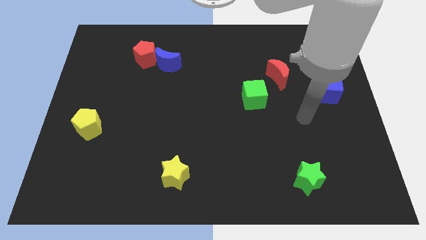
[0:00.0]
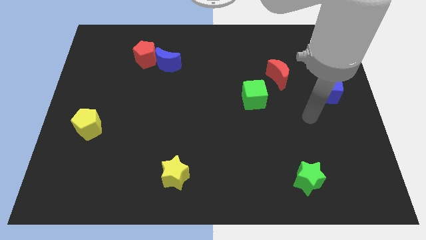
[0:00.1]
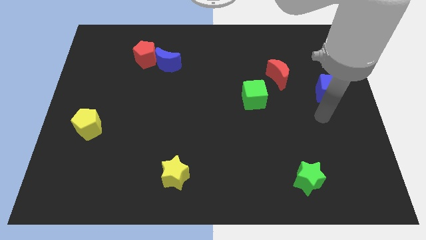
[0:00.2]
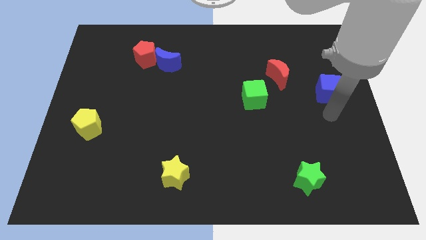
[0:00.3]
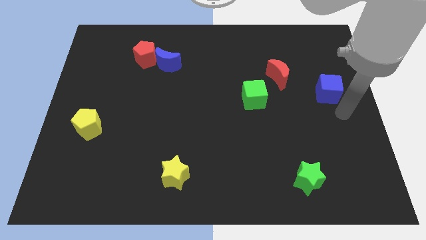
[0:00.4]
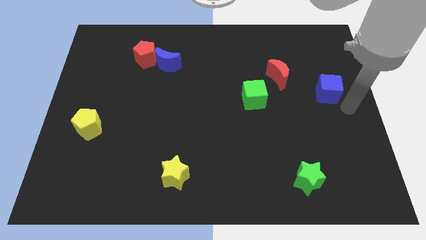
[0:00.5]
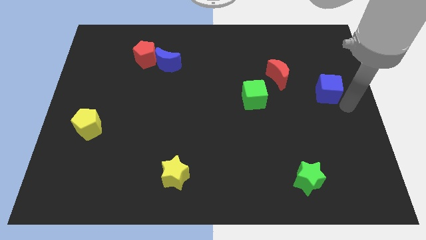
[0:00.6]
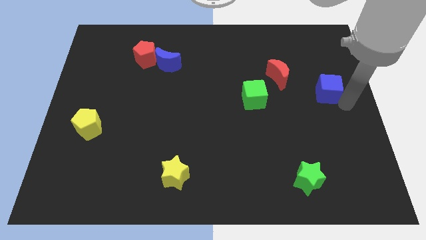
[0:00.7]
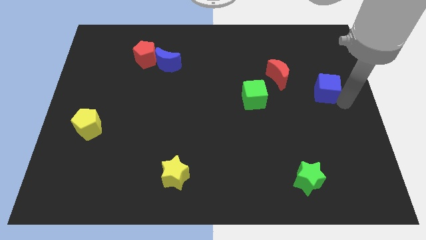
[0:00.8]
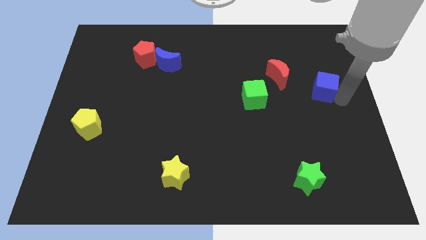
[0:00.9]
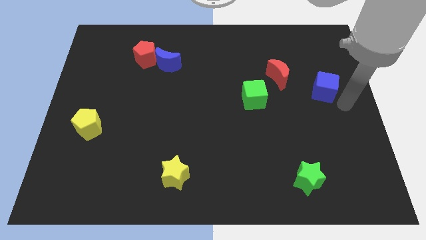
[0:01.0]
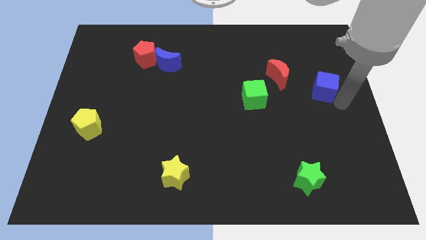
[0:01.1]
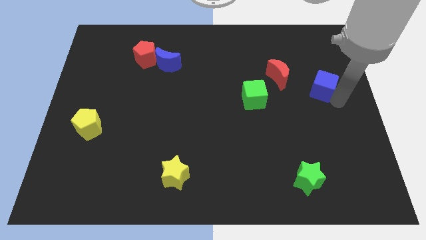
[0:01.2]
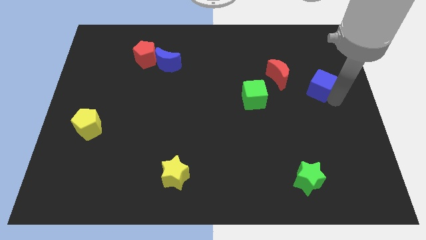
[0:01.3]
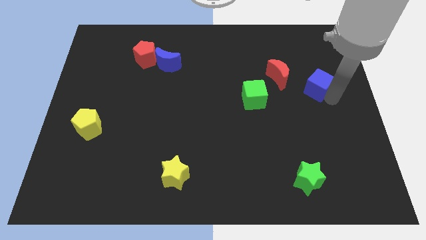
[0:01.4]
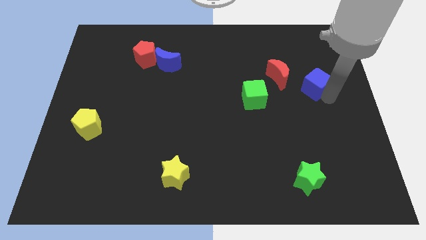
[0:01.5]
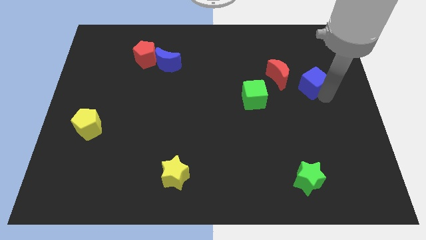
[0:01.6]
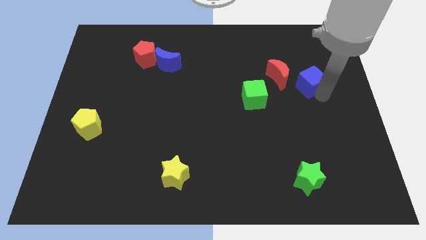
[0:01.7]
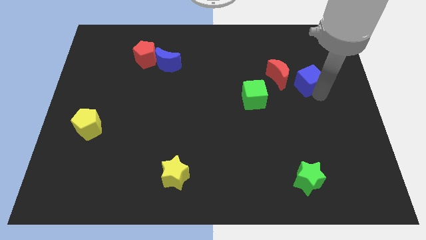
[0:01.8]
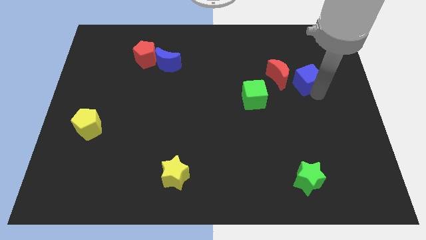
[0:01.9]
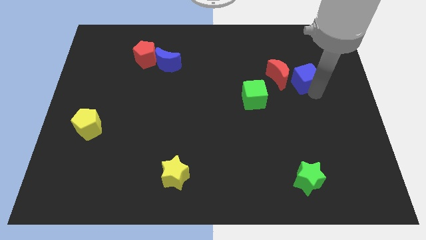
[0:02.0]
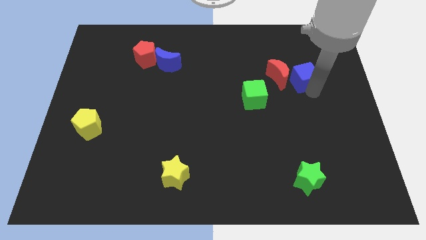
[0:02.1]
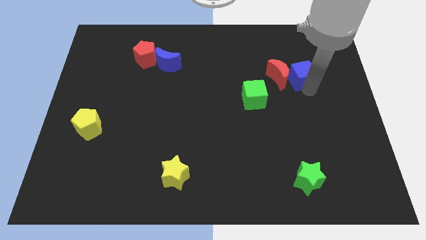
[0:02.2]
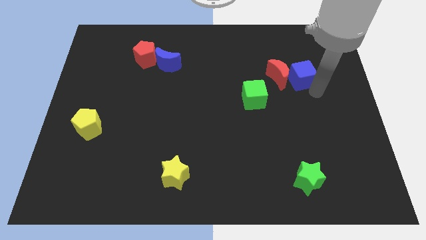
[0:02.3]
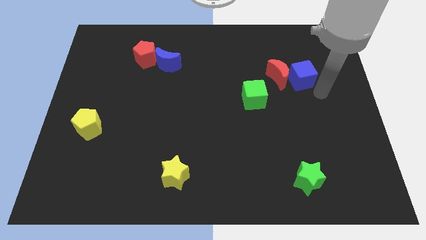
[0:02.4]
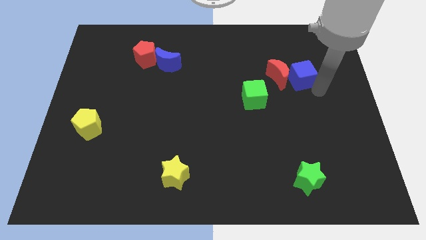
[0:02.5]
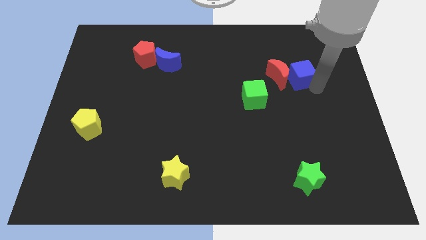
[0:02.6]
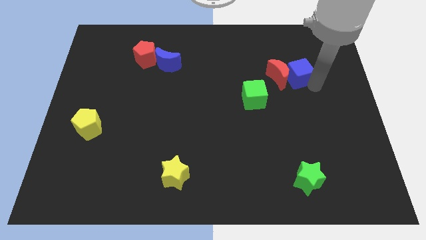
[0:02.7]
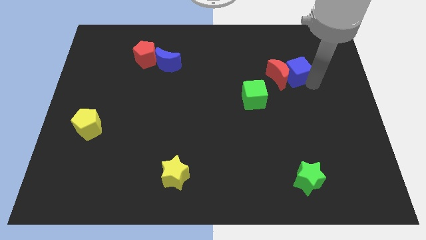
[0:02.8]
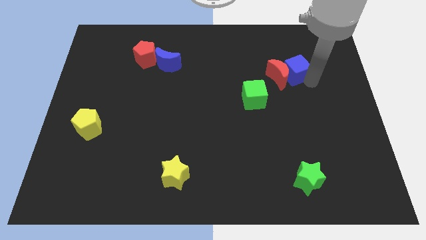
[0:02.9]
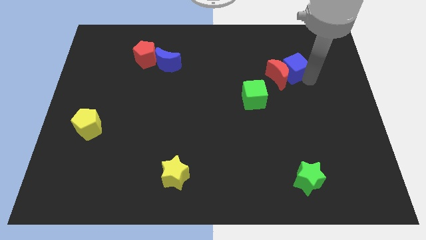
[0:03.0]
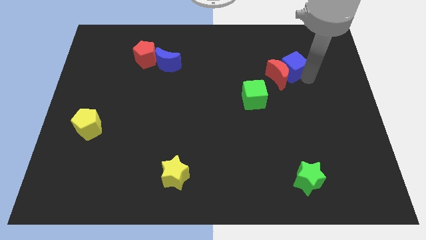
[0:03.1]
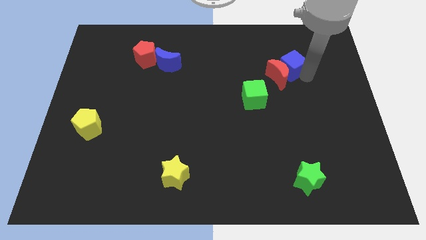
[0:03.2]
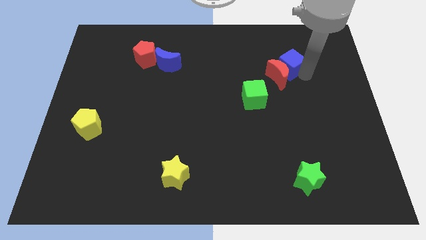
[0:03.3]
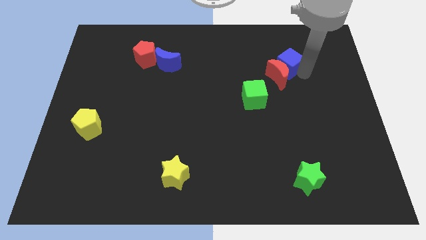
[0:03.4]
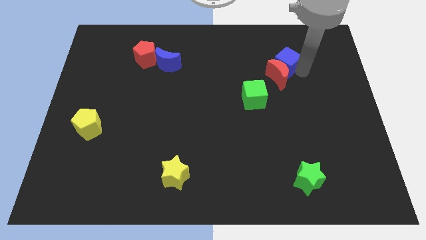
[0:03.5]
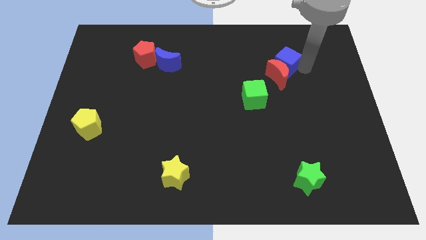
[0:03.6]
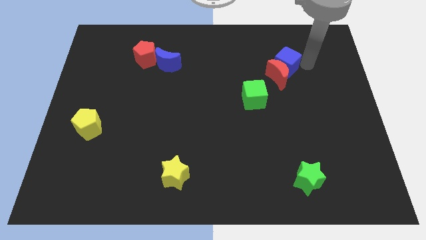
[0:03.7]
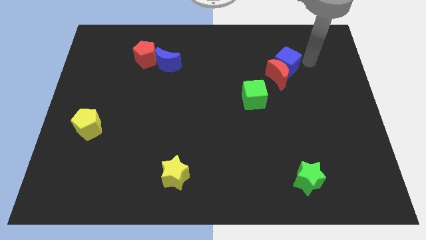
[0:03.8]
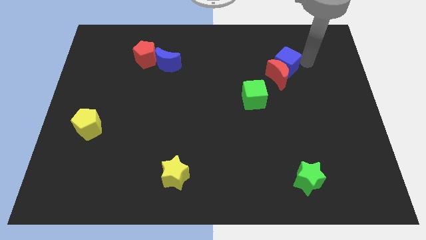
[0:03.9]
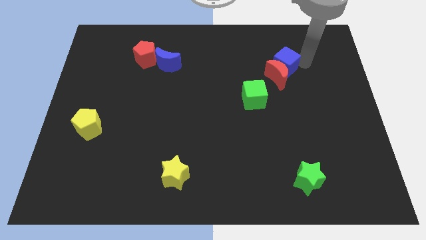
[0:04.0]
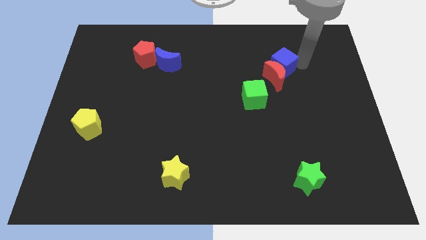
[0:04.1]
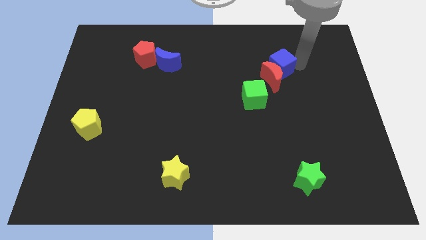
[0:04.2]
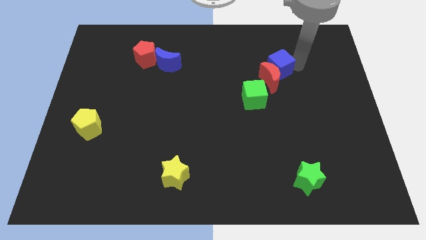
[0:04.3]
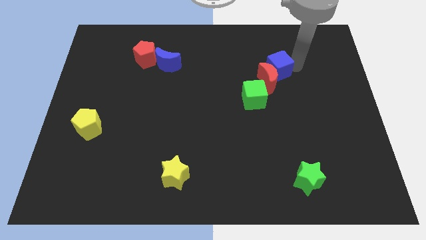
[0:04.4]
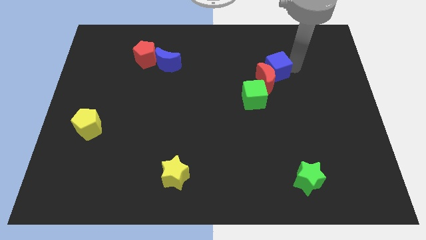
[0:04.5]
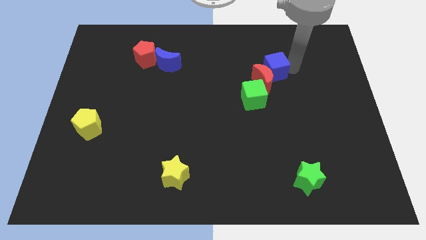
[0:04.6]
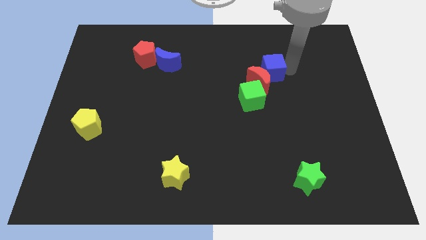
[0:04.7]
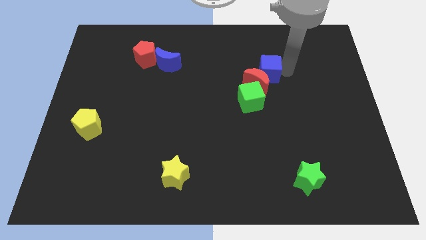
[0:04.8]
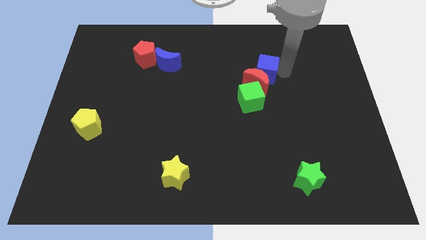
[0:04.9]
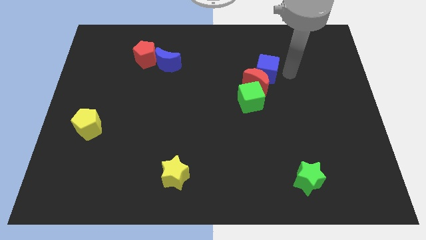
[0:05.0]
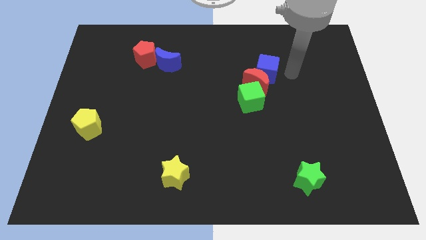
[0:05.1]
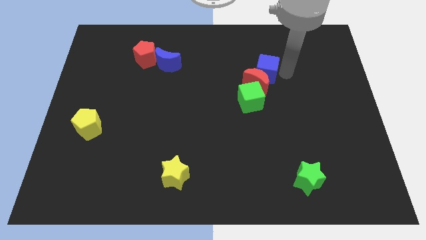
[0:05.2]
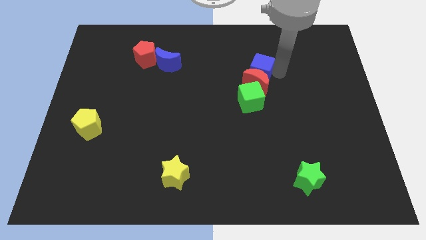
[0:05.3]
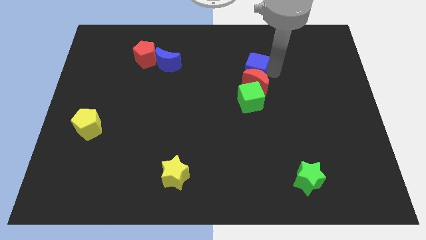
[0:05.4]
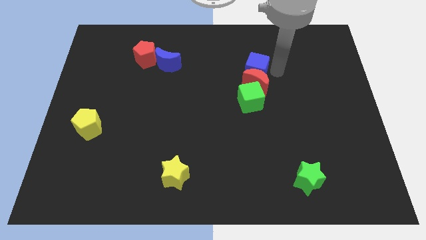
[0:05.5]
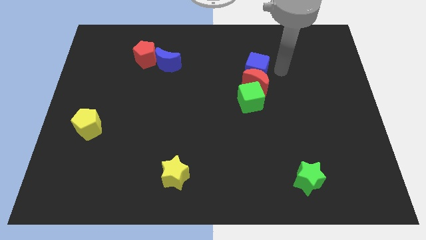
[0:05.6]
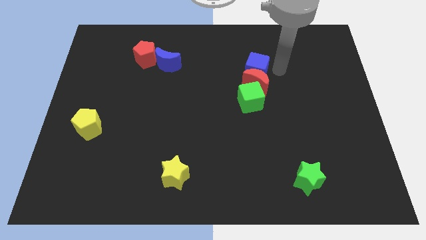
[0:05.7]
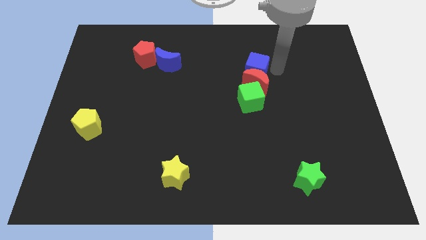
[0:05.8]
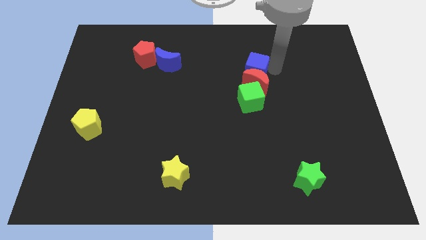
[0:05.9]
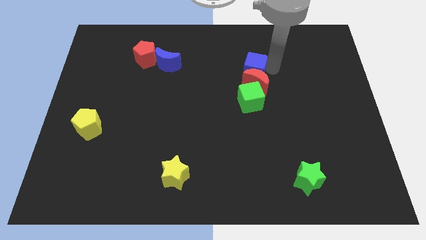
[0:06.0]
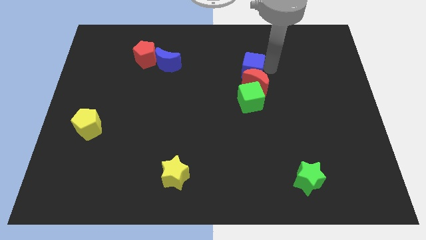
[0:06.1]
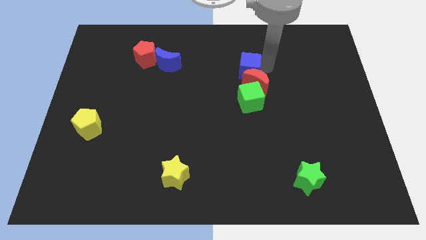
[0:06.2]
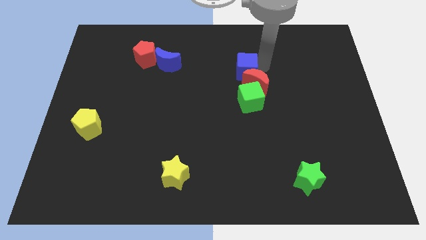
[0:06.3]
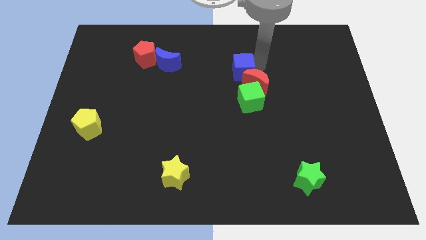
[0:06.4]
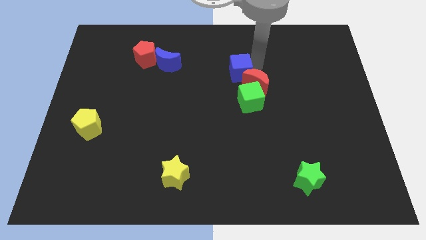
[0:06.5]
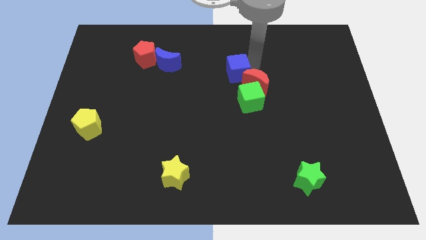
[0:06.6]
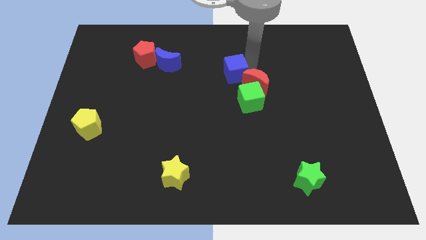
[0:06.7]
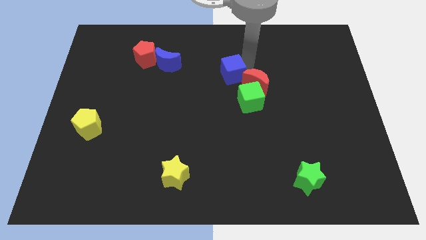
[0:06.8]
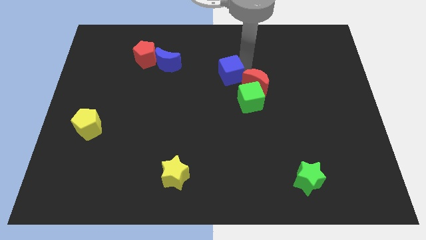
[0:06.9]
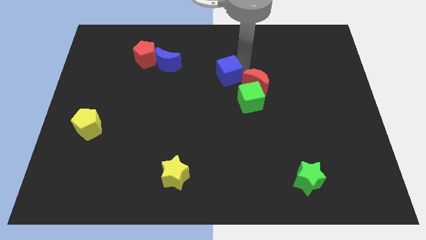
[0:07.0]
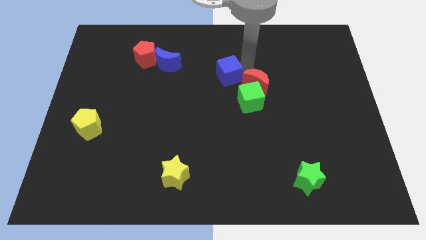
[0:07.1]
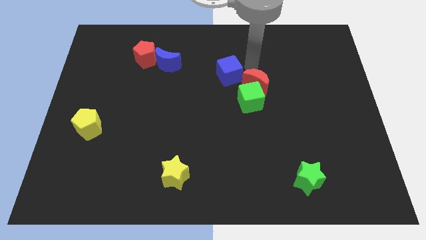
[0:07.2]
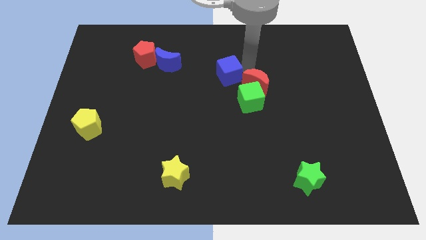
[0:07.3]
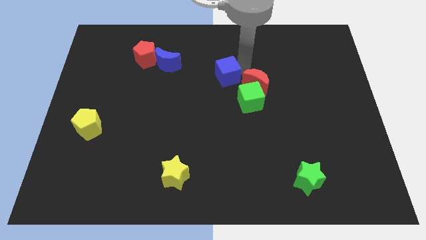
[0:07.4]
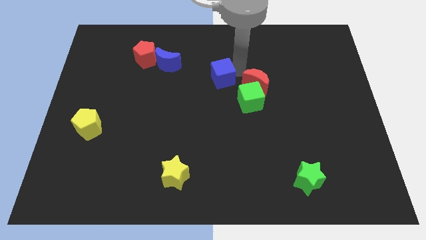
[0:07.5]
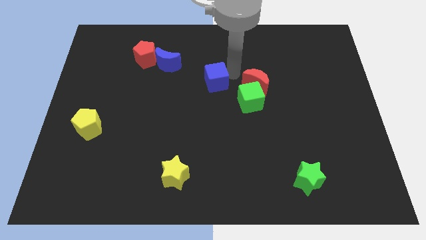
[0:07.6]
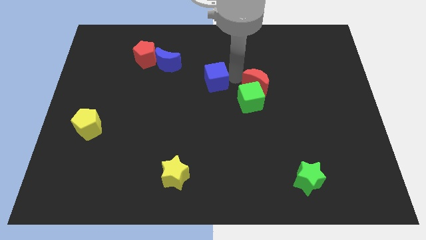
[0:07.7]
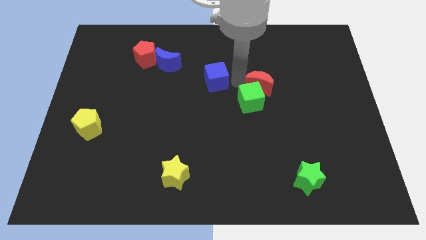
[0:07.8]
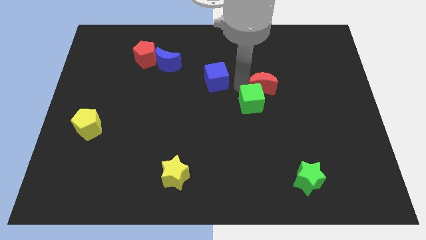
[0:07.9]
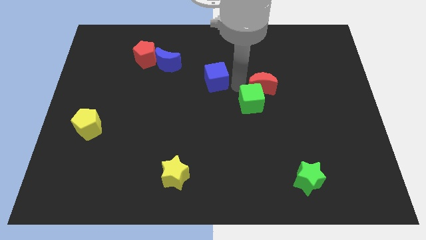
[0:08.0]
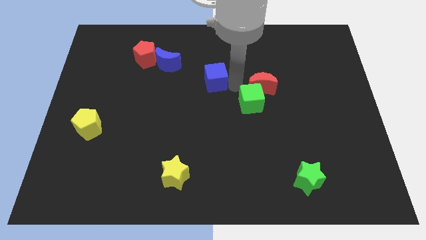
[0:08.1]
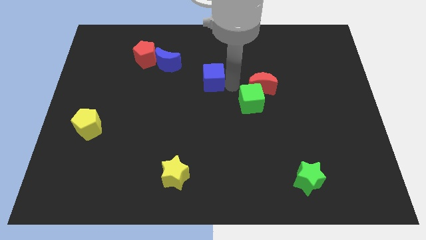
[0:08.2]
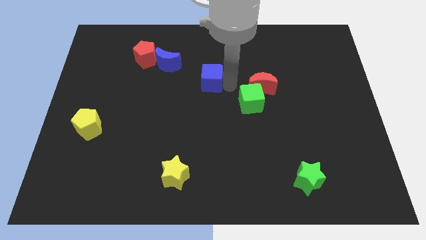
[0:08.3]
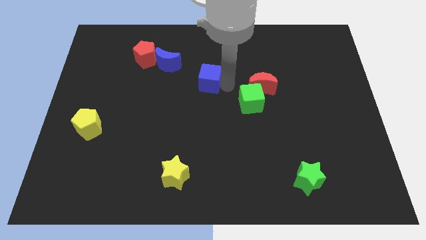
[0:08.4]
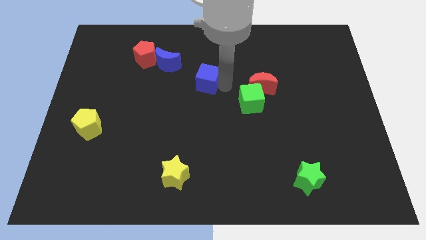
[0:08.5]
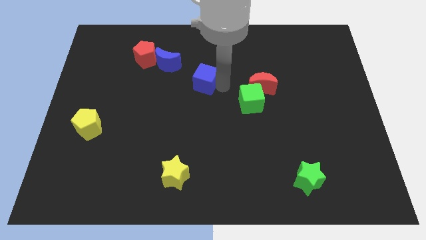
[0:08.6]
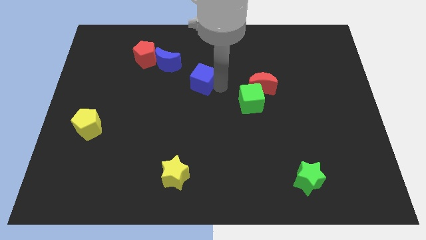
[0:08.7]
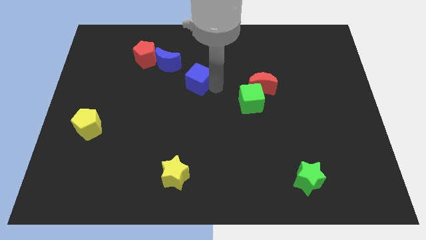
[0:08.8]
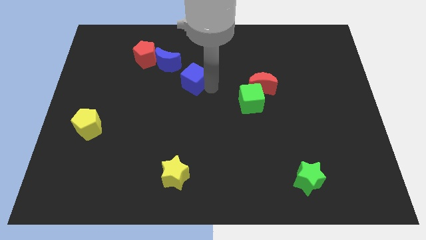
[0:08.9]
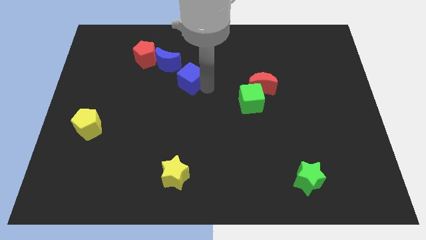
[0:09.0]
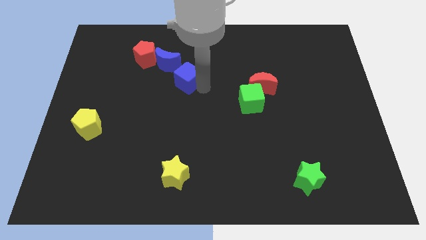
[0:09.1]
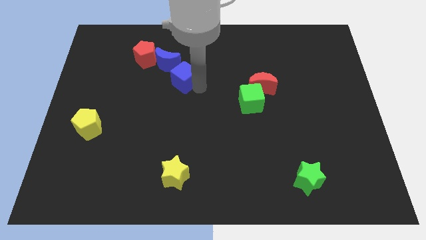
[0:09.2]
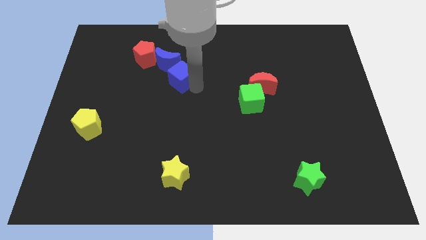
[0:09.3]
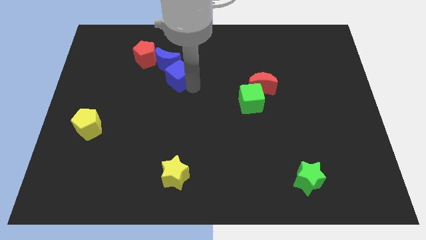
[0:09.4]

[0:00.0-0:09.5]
move the blue cube next to the blue moon
